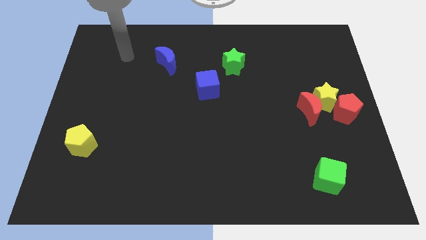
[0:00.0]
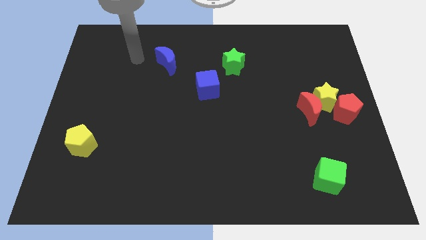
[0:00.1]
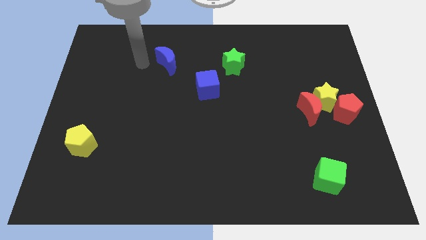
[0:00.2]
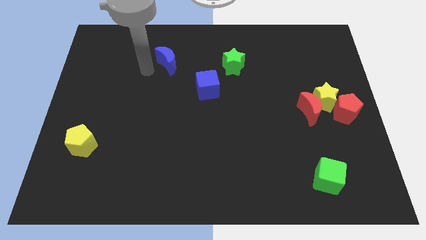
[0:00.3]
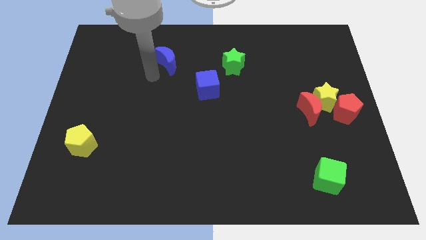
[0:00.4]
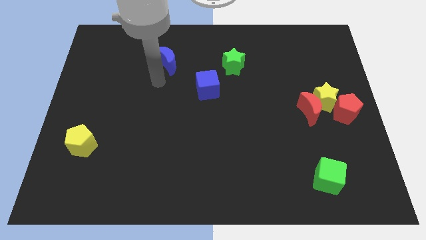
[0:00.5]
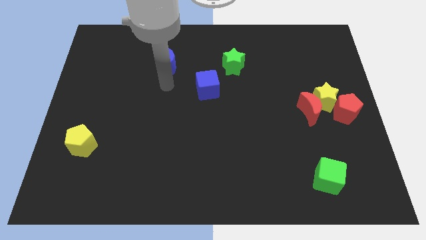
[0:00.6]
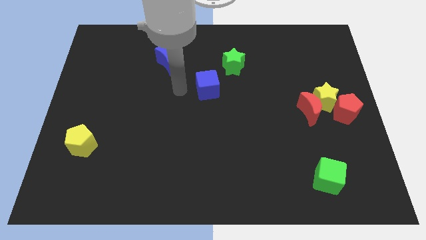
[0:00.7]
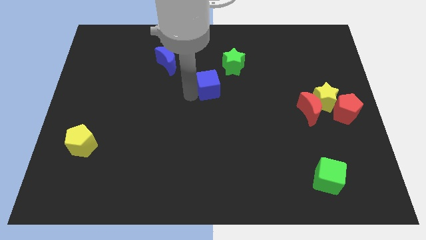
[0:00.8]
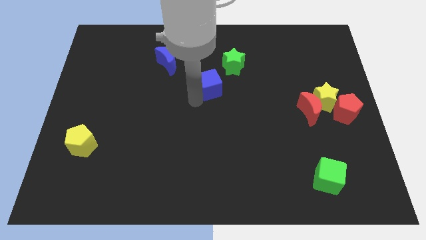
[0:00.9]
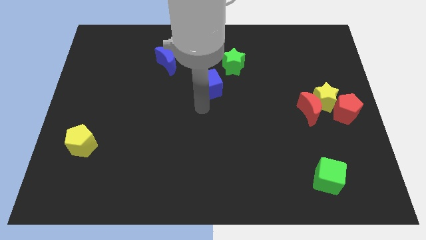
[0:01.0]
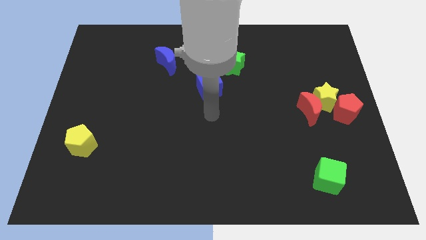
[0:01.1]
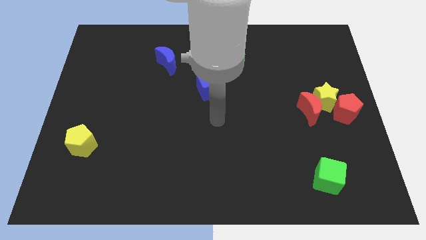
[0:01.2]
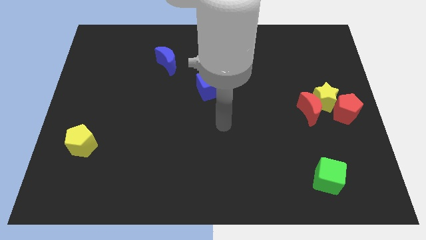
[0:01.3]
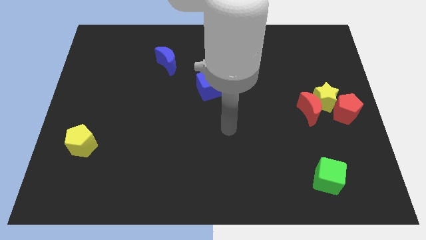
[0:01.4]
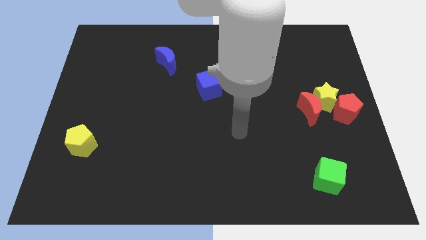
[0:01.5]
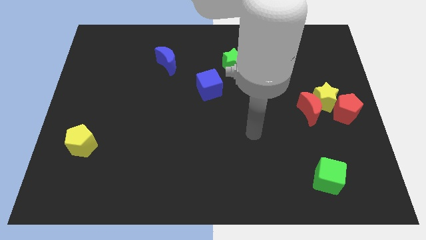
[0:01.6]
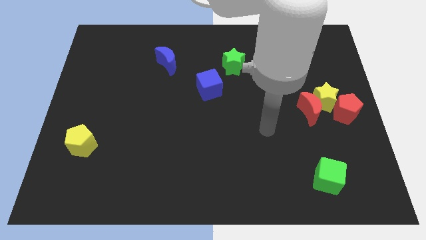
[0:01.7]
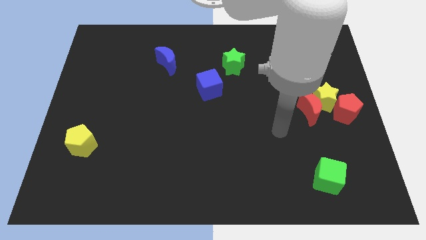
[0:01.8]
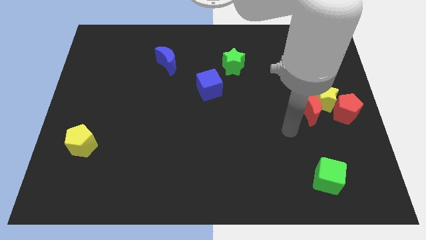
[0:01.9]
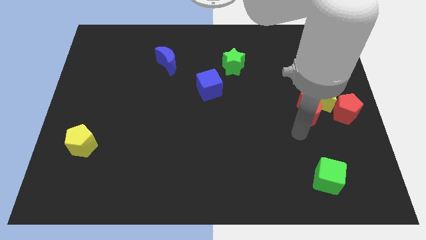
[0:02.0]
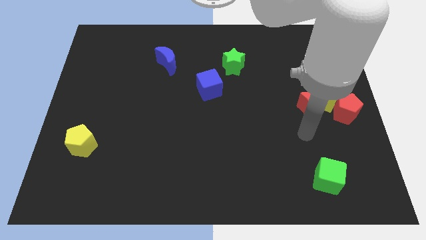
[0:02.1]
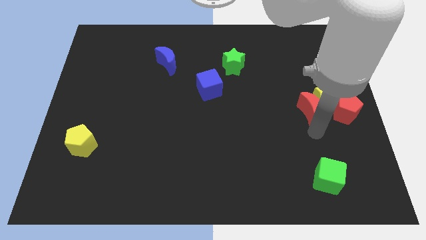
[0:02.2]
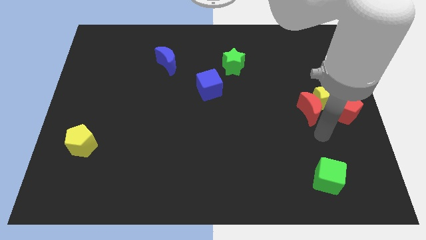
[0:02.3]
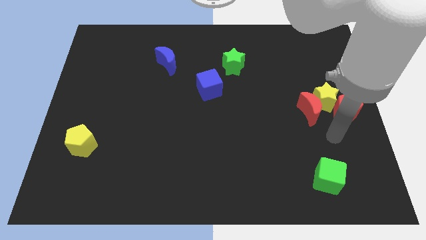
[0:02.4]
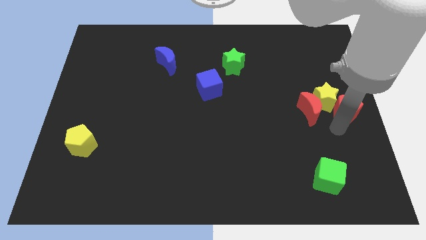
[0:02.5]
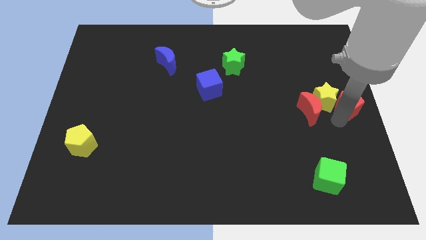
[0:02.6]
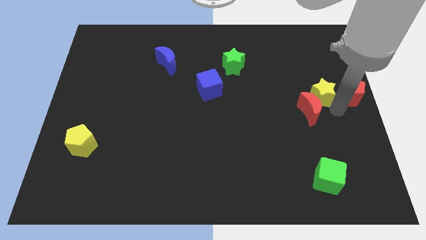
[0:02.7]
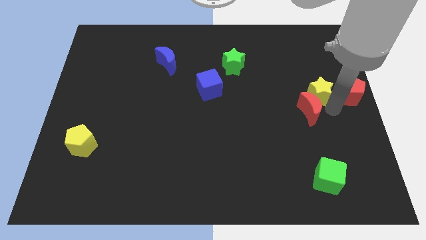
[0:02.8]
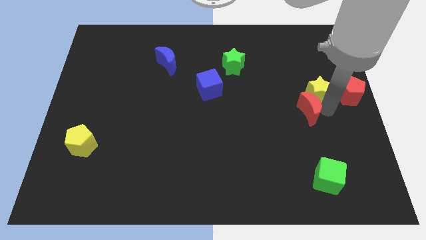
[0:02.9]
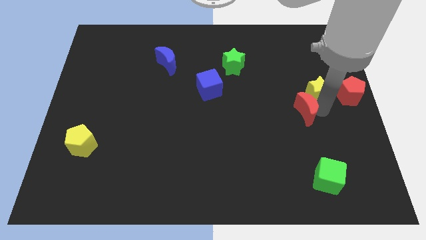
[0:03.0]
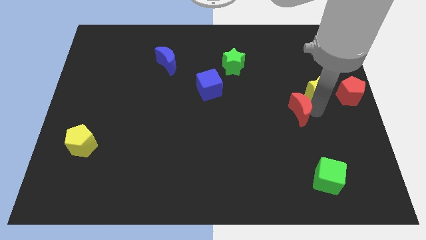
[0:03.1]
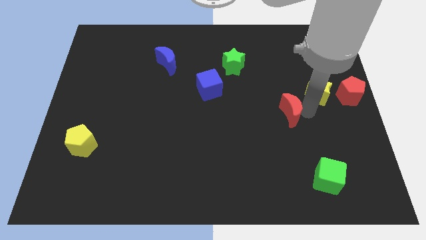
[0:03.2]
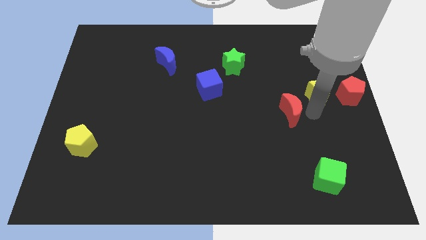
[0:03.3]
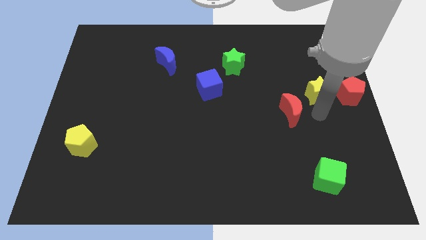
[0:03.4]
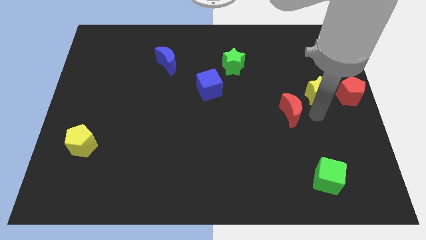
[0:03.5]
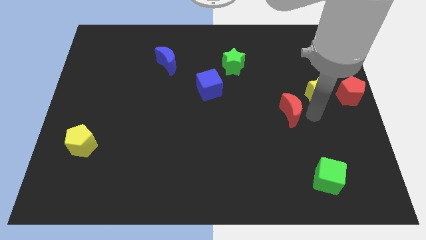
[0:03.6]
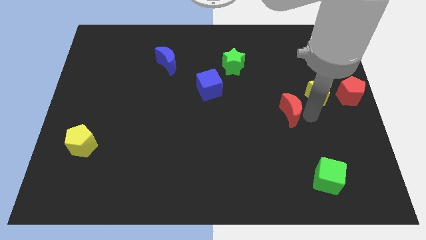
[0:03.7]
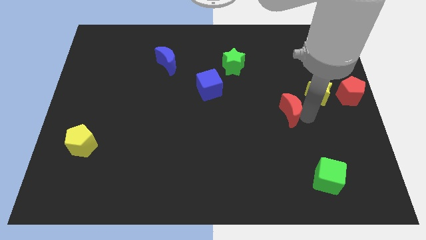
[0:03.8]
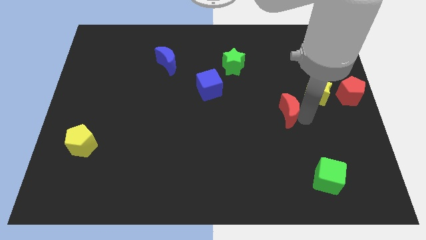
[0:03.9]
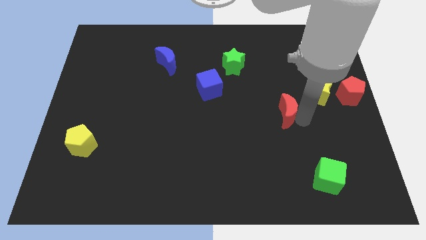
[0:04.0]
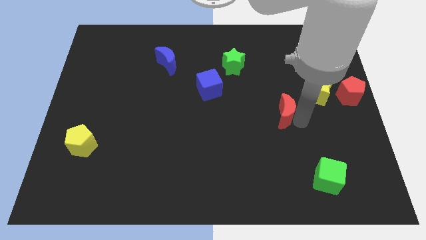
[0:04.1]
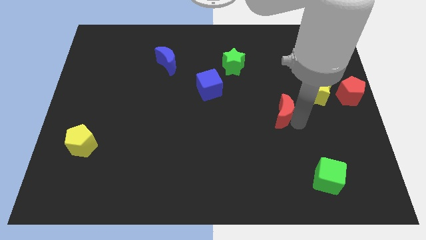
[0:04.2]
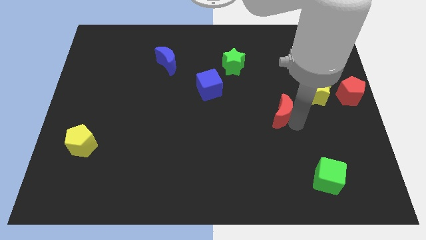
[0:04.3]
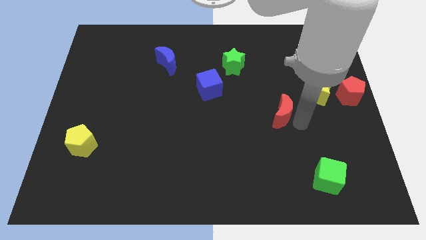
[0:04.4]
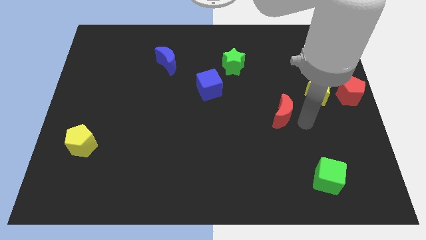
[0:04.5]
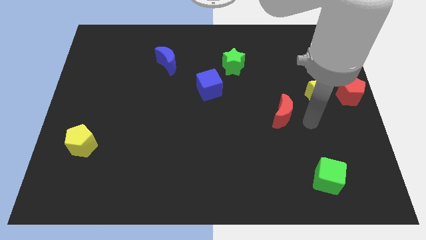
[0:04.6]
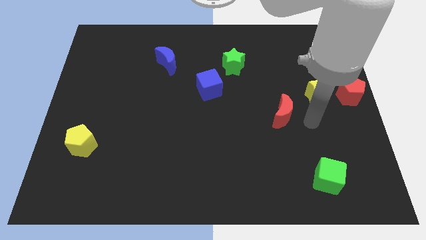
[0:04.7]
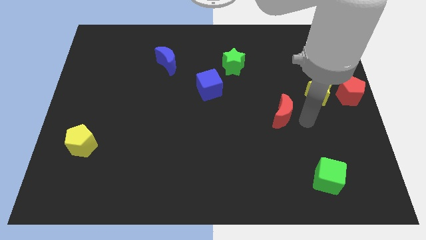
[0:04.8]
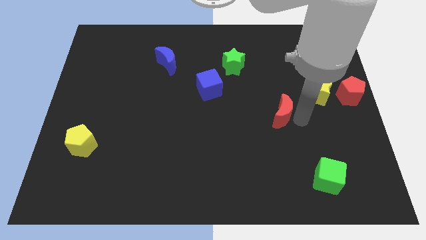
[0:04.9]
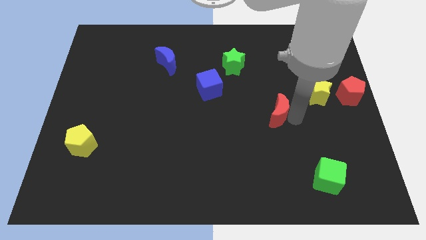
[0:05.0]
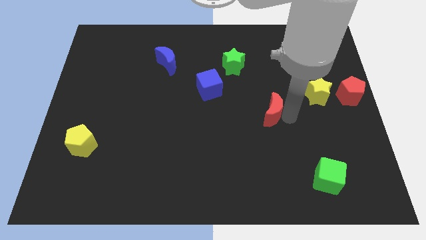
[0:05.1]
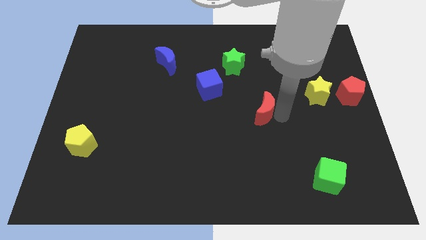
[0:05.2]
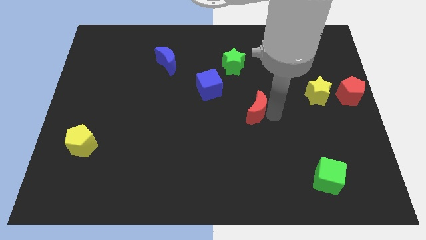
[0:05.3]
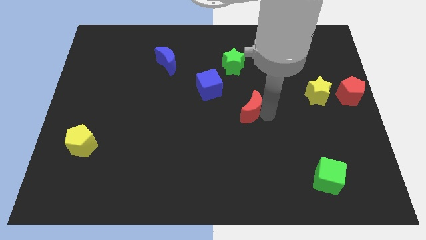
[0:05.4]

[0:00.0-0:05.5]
put the red moon diagonally down and to the right of the blue cube

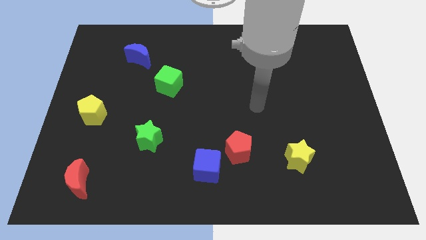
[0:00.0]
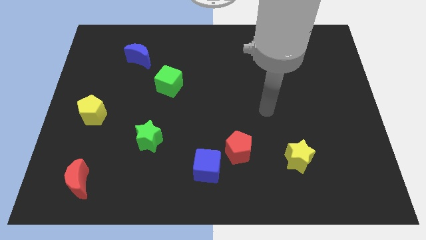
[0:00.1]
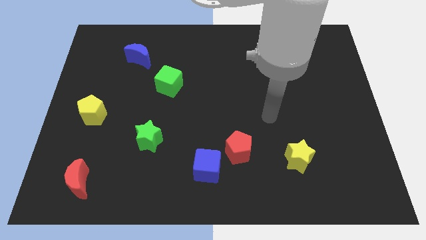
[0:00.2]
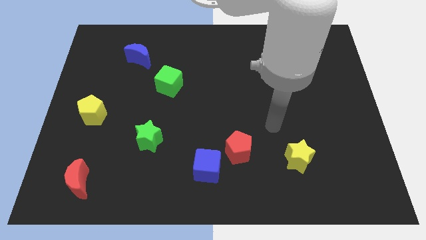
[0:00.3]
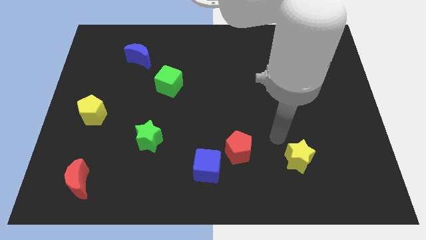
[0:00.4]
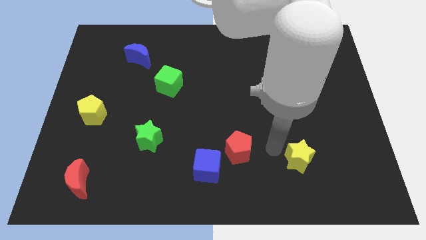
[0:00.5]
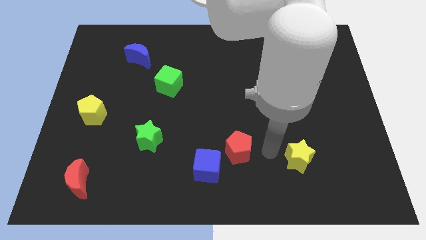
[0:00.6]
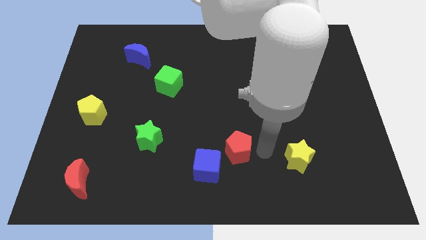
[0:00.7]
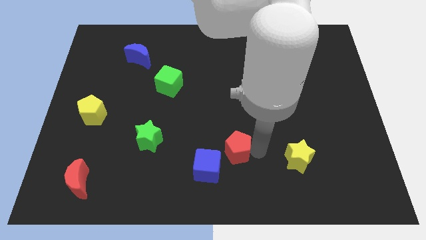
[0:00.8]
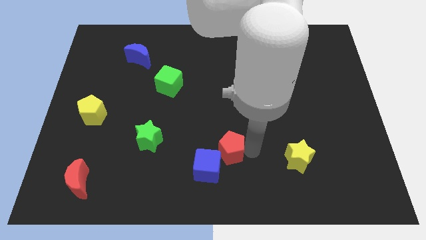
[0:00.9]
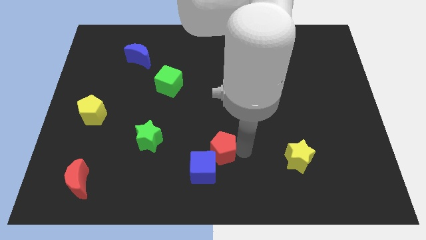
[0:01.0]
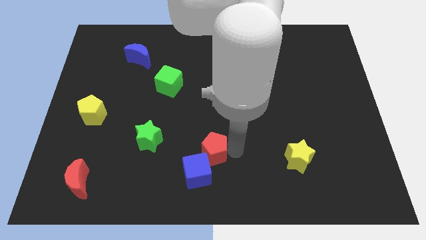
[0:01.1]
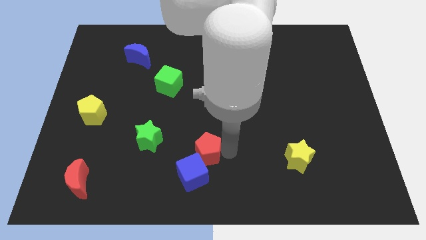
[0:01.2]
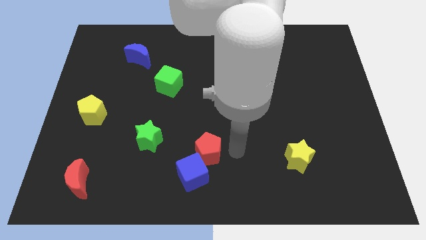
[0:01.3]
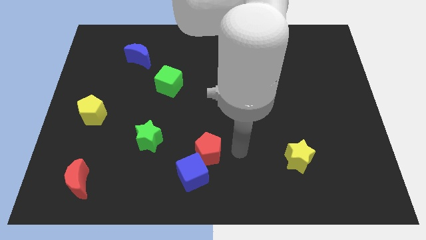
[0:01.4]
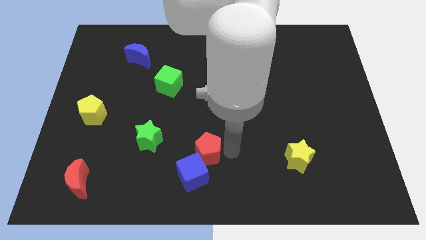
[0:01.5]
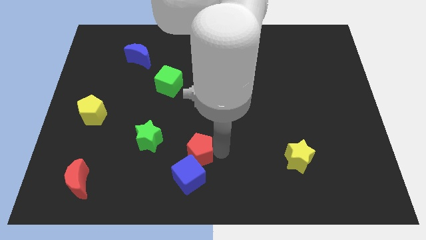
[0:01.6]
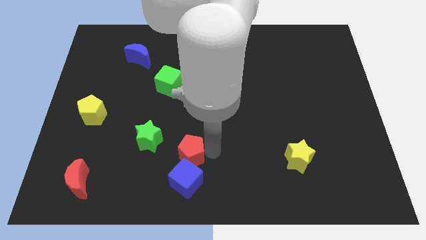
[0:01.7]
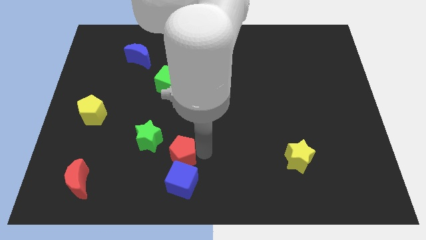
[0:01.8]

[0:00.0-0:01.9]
slide the red pentagon diagonally up and to the left of the blue cube
